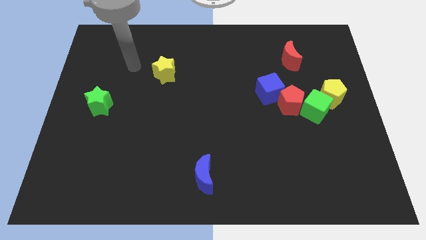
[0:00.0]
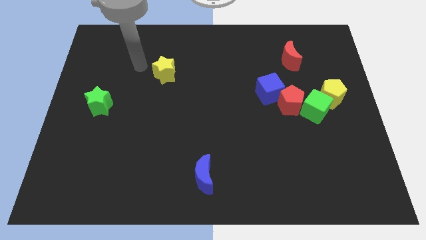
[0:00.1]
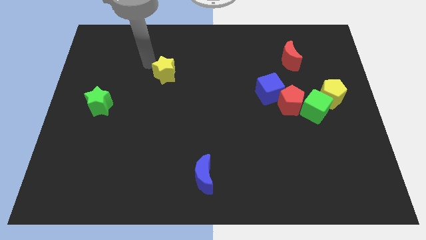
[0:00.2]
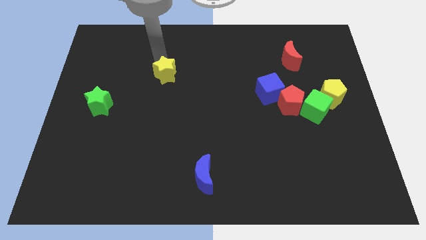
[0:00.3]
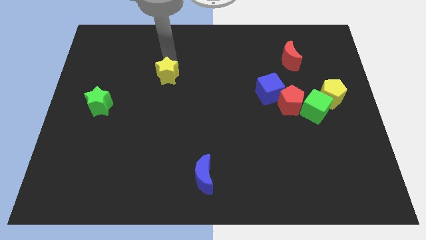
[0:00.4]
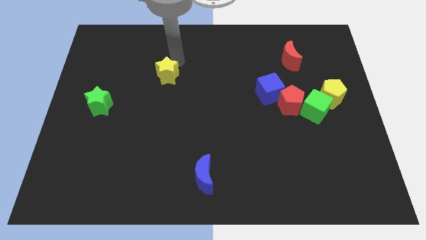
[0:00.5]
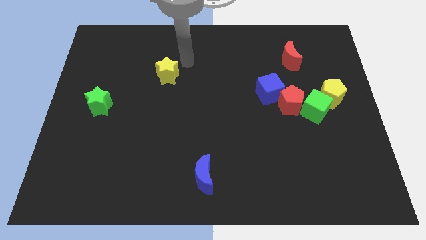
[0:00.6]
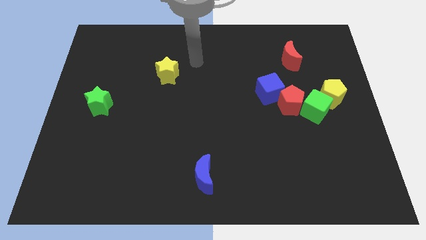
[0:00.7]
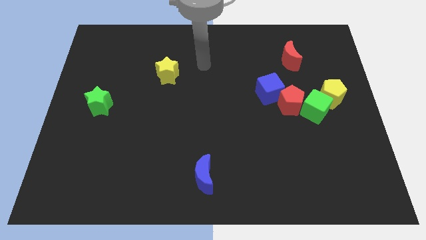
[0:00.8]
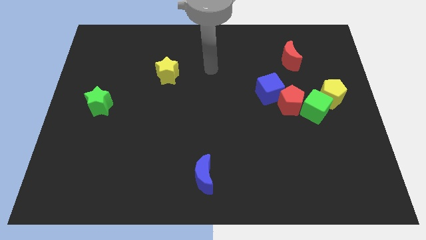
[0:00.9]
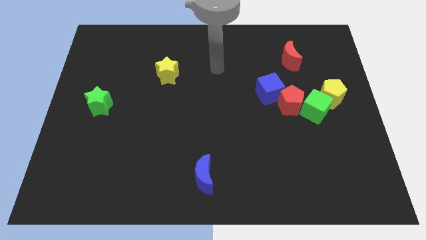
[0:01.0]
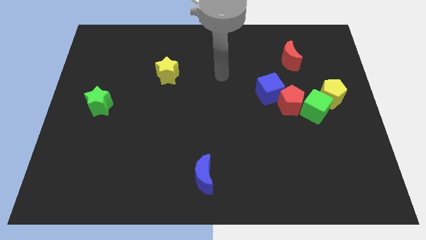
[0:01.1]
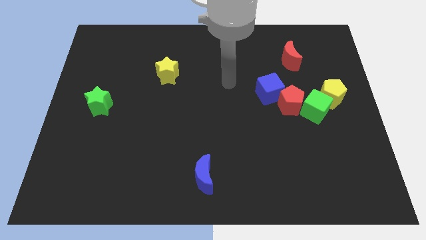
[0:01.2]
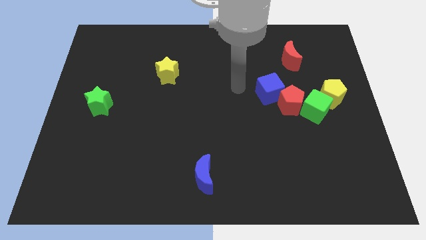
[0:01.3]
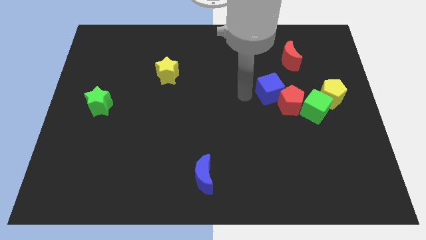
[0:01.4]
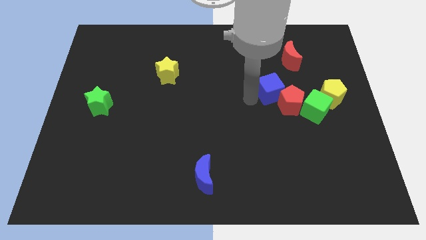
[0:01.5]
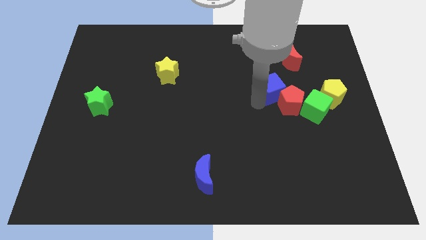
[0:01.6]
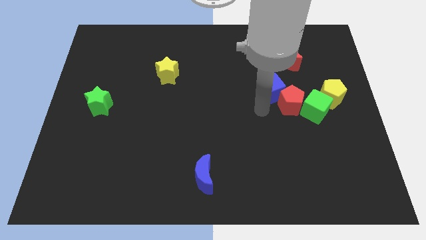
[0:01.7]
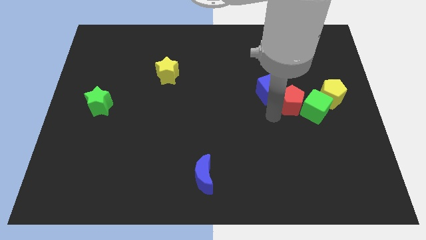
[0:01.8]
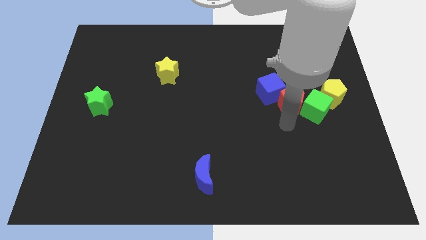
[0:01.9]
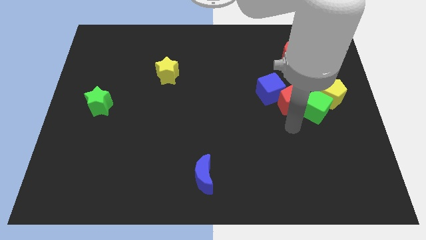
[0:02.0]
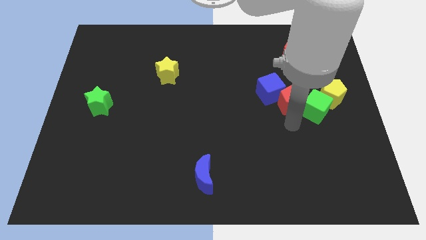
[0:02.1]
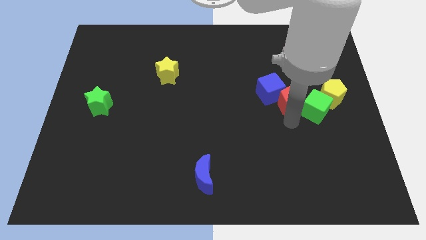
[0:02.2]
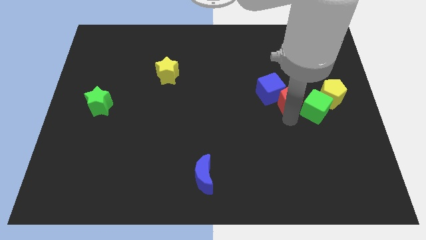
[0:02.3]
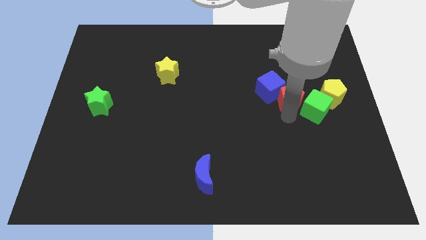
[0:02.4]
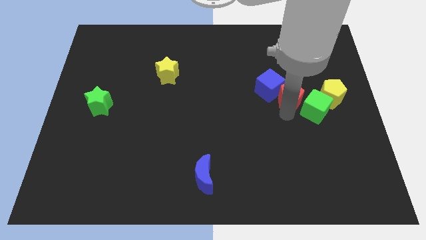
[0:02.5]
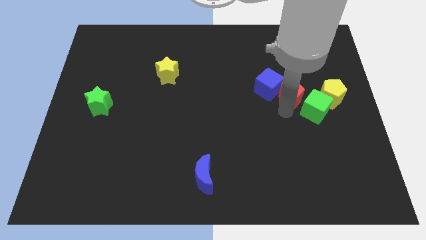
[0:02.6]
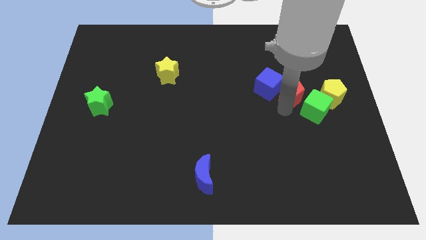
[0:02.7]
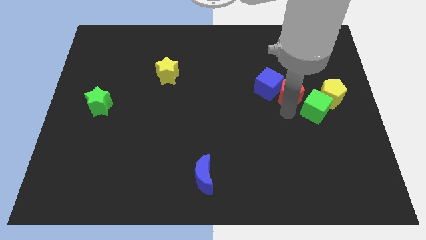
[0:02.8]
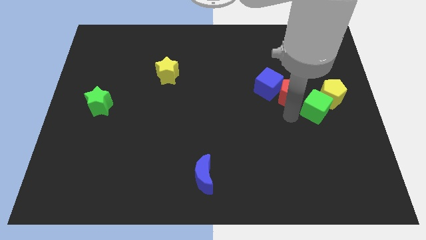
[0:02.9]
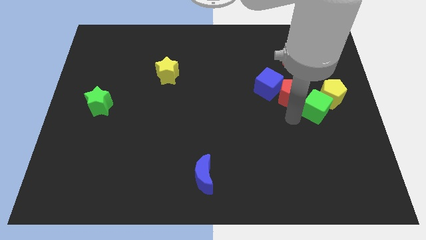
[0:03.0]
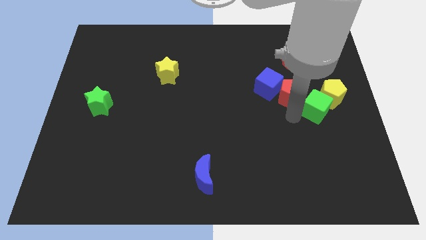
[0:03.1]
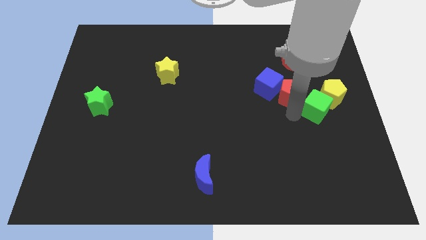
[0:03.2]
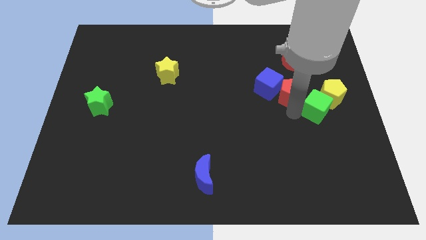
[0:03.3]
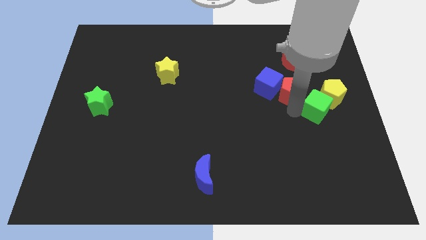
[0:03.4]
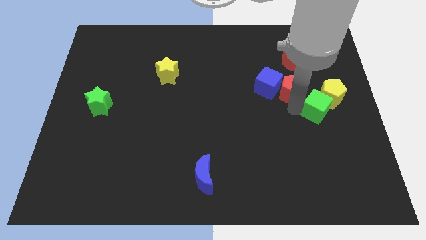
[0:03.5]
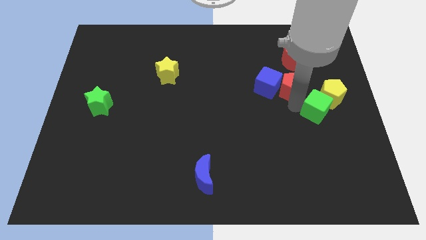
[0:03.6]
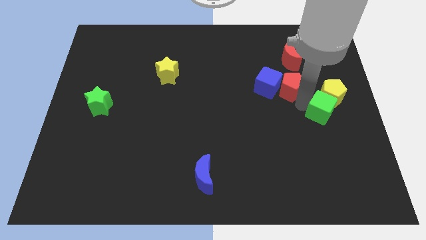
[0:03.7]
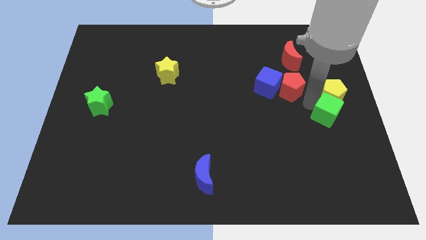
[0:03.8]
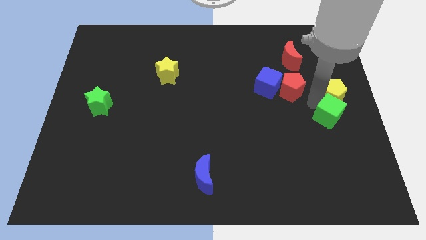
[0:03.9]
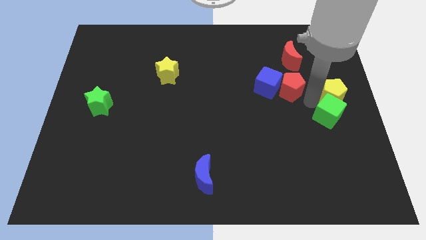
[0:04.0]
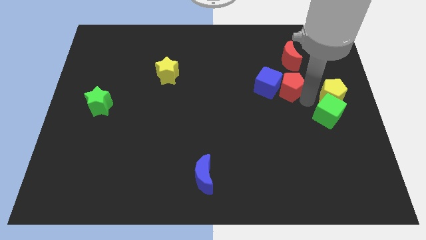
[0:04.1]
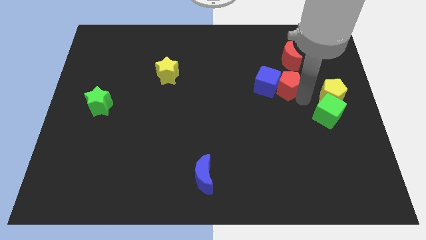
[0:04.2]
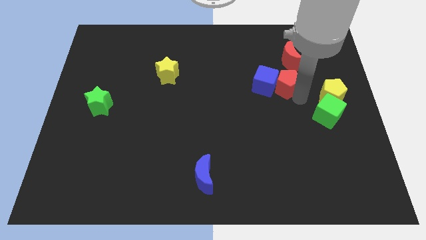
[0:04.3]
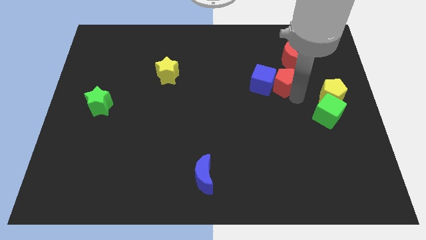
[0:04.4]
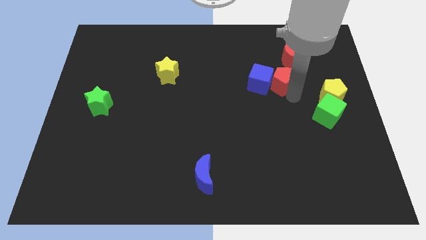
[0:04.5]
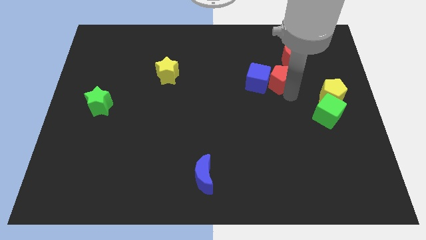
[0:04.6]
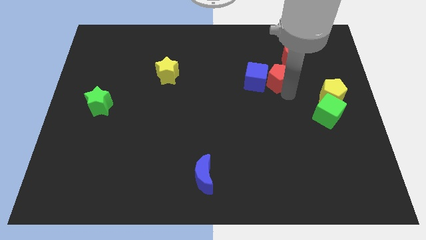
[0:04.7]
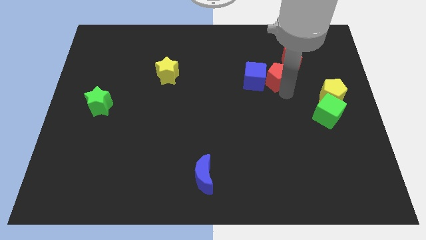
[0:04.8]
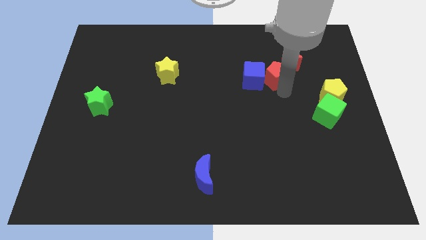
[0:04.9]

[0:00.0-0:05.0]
push the red pentagon a little up and left diagonally

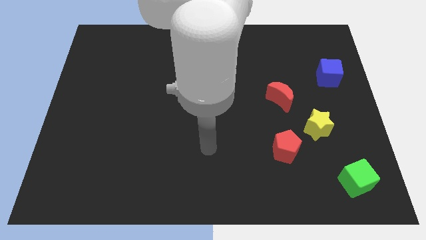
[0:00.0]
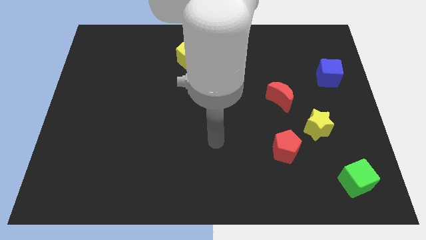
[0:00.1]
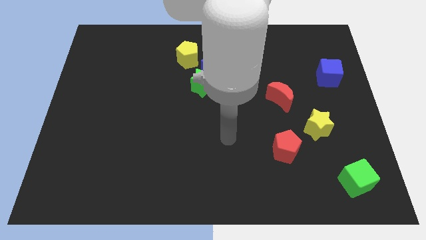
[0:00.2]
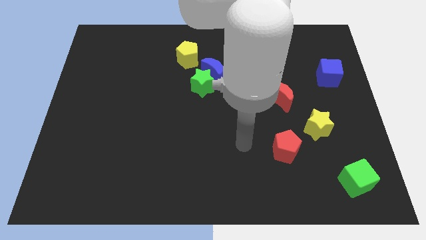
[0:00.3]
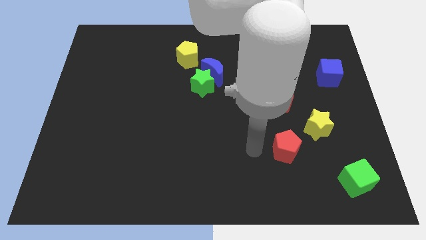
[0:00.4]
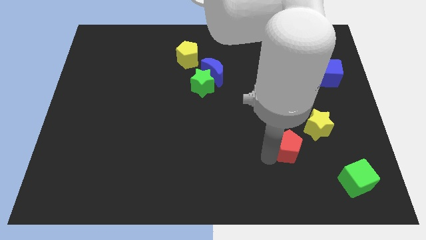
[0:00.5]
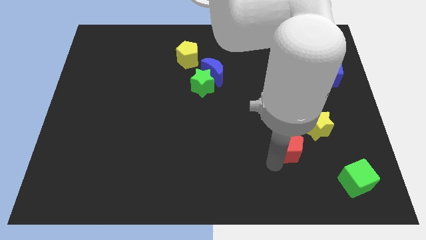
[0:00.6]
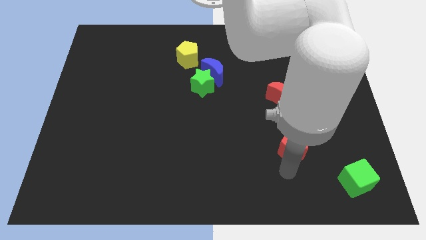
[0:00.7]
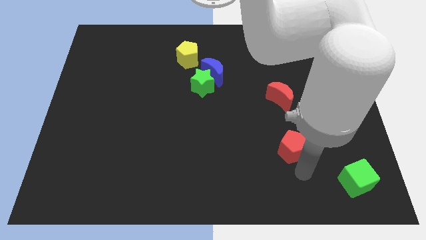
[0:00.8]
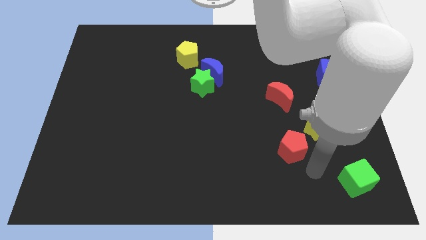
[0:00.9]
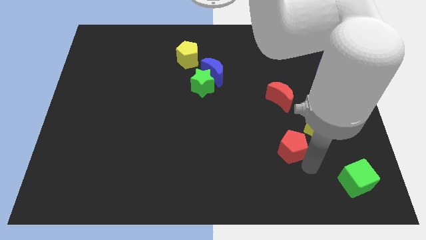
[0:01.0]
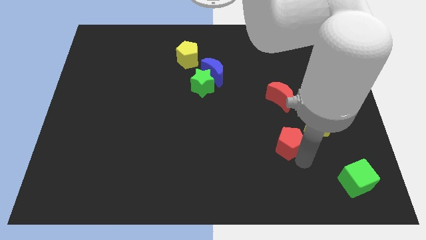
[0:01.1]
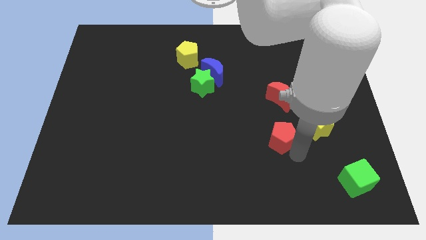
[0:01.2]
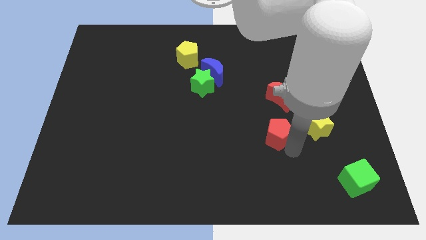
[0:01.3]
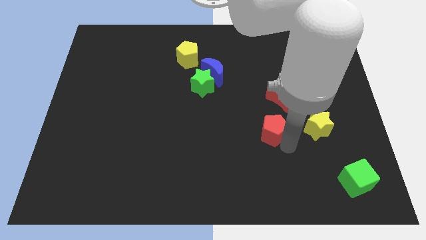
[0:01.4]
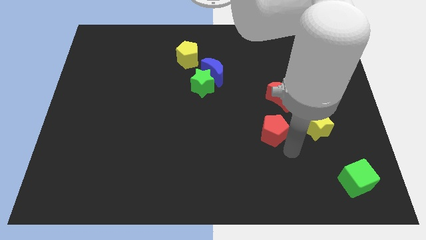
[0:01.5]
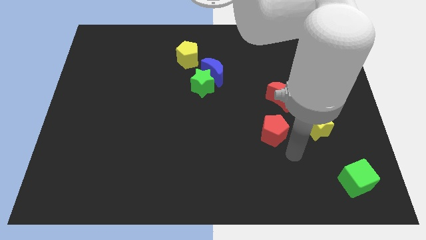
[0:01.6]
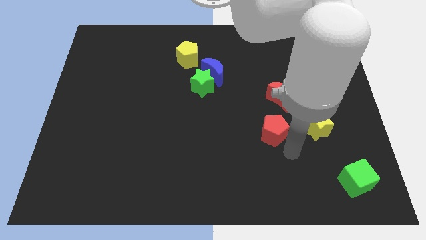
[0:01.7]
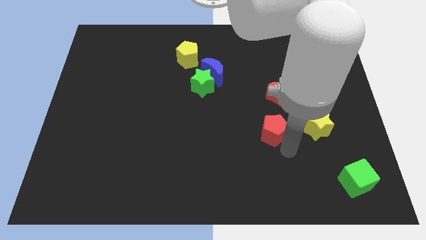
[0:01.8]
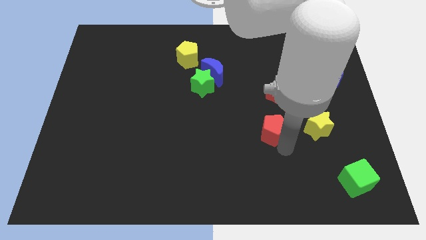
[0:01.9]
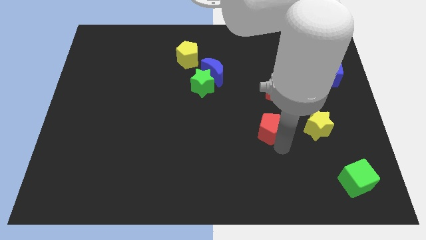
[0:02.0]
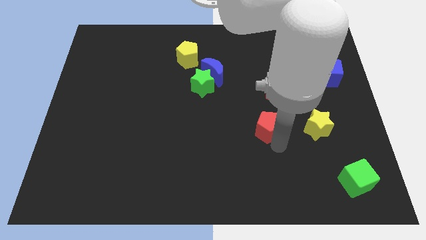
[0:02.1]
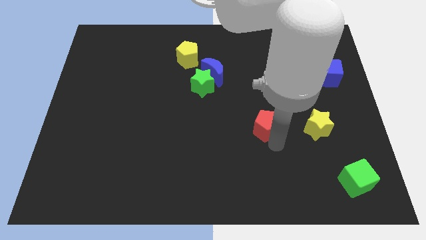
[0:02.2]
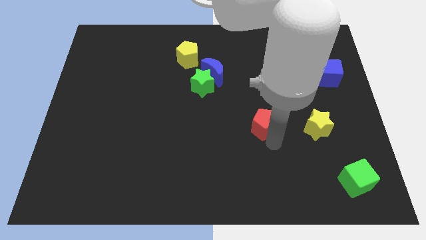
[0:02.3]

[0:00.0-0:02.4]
slightly move the red pentagon up and left

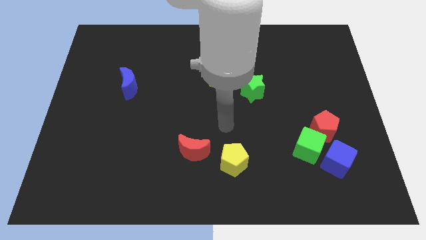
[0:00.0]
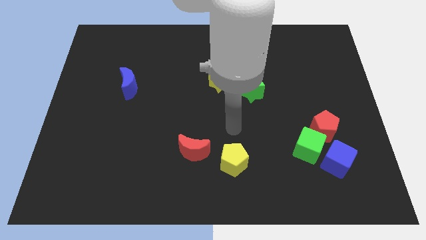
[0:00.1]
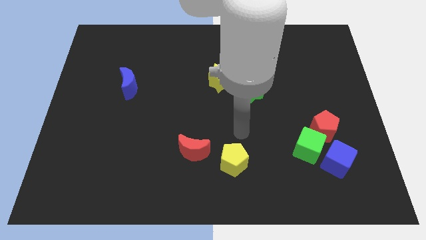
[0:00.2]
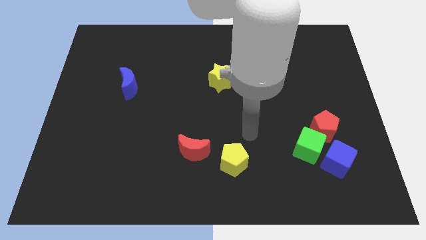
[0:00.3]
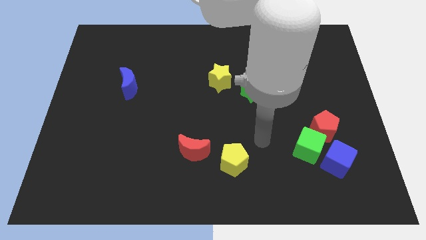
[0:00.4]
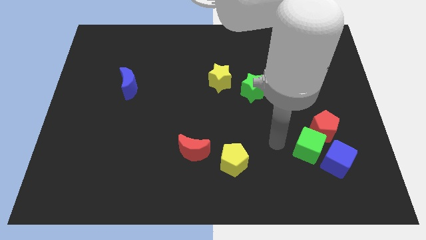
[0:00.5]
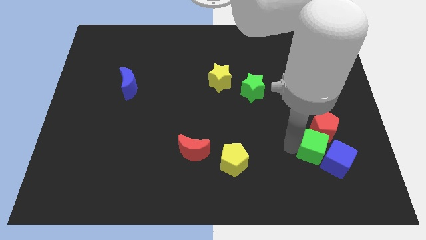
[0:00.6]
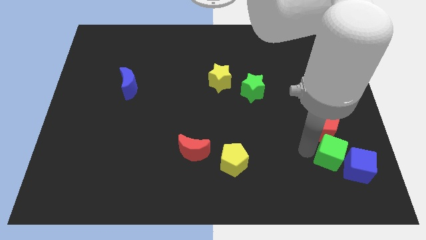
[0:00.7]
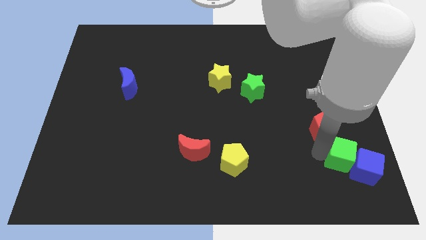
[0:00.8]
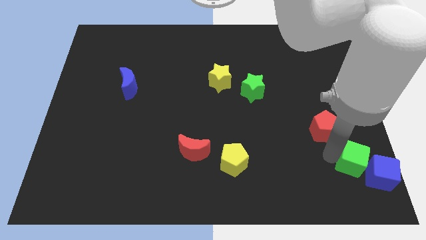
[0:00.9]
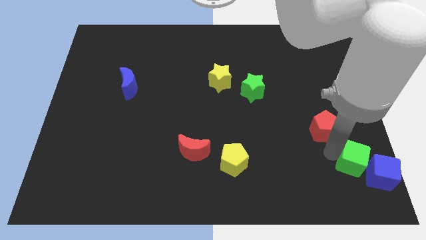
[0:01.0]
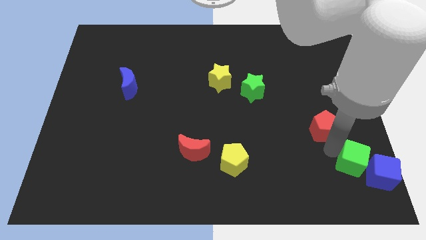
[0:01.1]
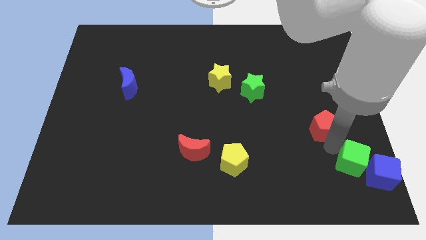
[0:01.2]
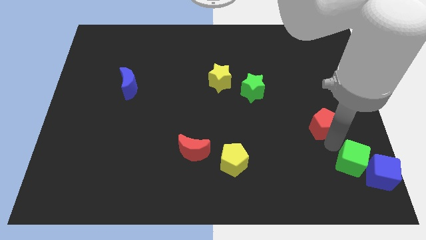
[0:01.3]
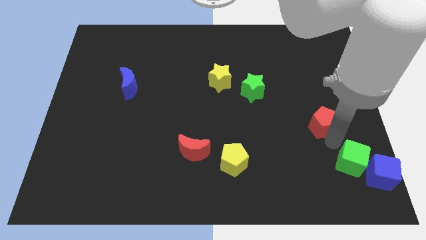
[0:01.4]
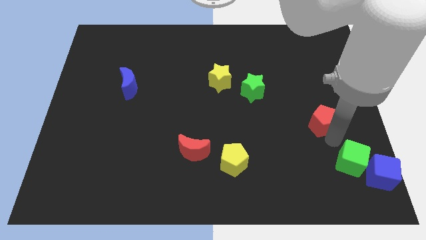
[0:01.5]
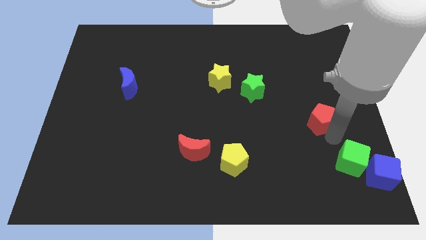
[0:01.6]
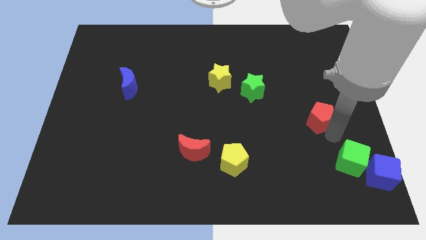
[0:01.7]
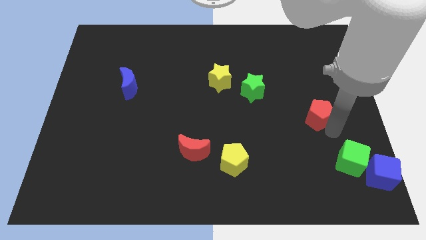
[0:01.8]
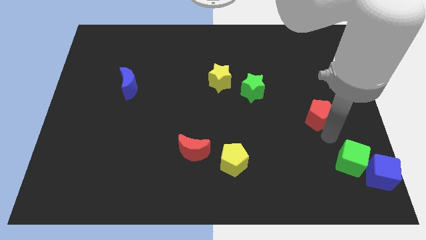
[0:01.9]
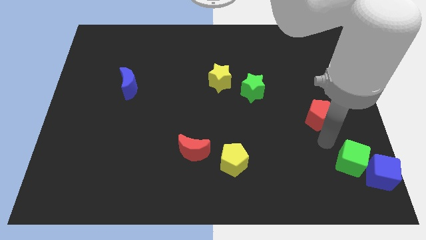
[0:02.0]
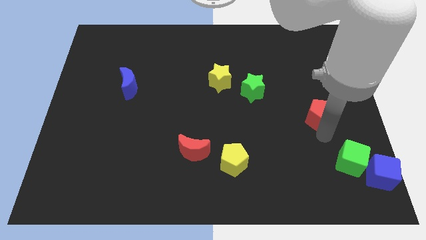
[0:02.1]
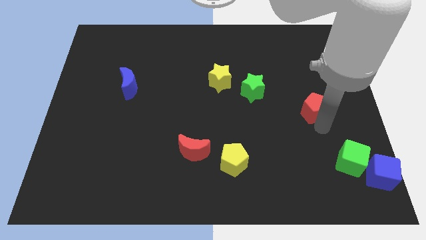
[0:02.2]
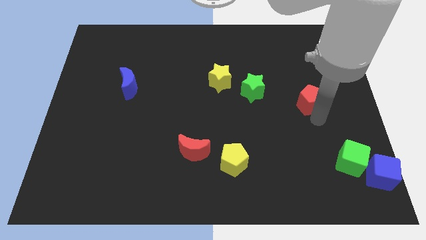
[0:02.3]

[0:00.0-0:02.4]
slightly push the red pentagon upwards
